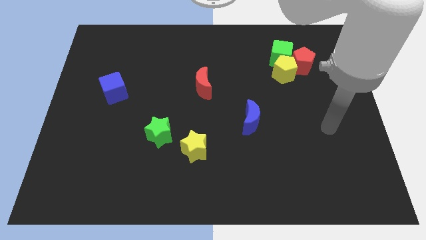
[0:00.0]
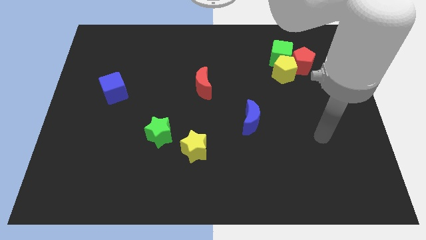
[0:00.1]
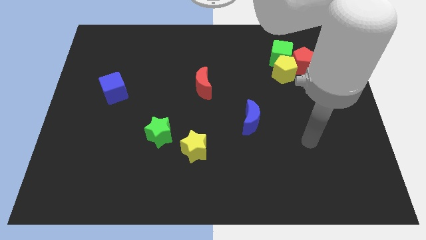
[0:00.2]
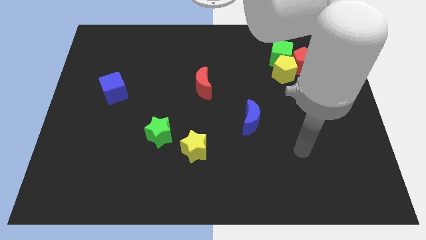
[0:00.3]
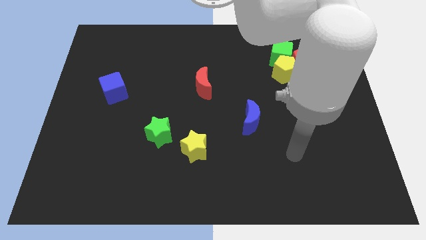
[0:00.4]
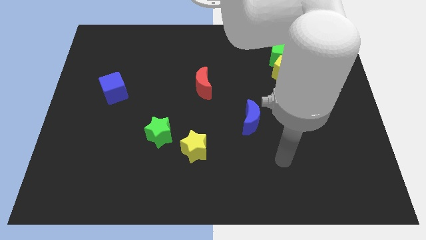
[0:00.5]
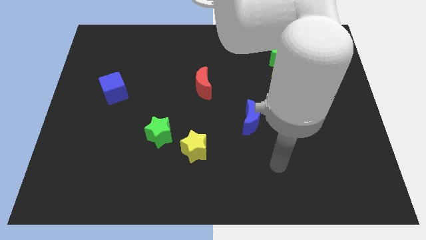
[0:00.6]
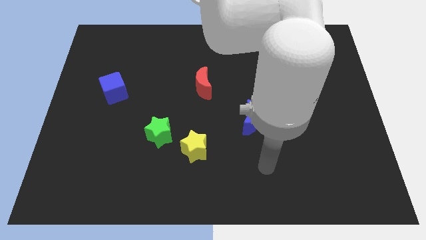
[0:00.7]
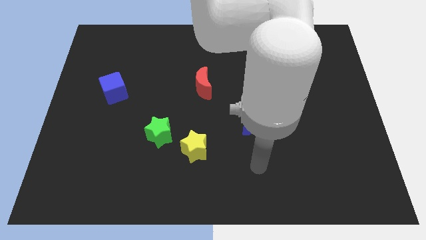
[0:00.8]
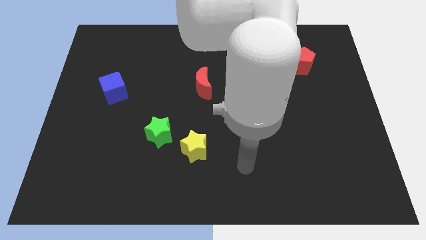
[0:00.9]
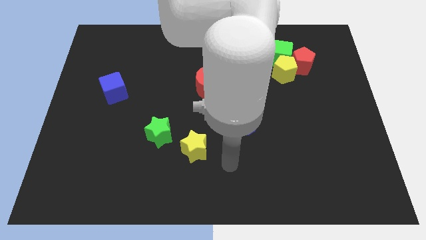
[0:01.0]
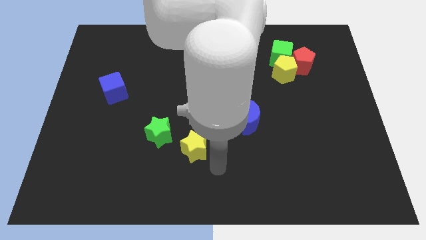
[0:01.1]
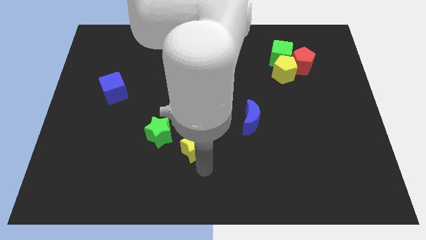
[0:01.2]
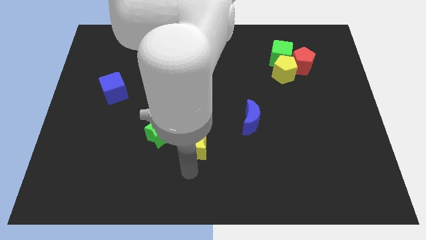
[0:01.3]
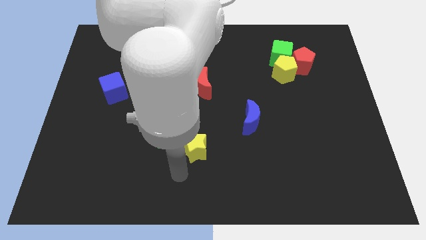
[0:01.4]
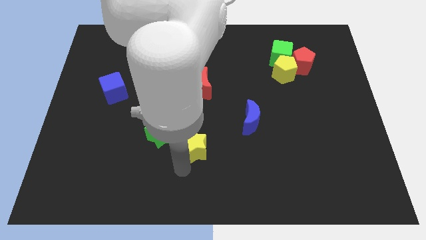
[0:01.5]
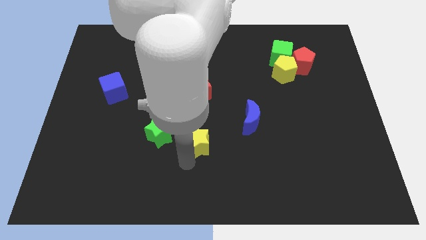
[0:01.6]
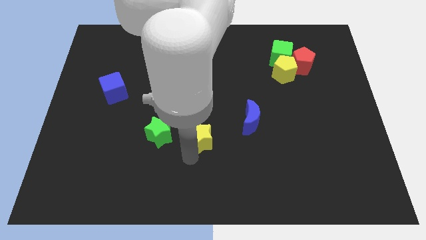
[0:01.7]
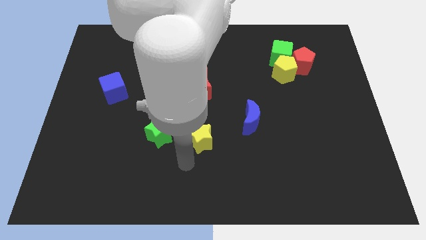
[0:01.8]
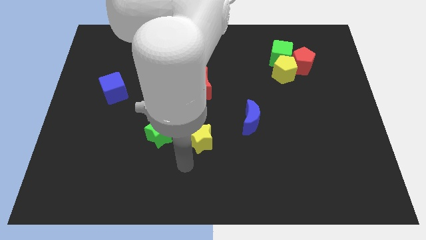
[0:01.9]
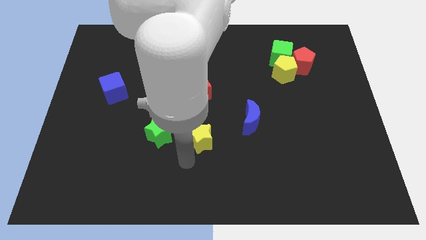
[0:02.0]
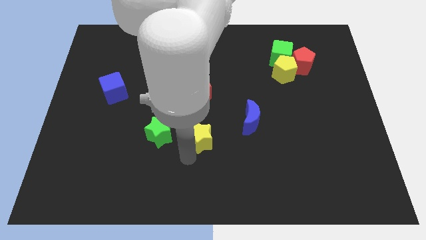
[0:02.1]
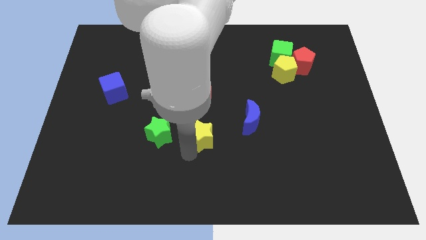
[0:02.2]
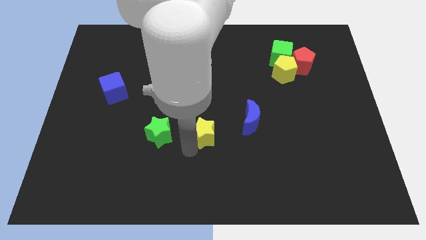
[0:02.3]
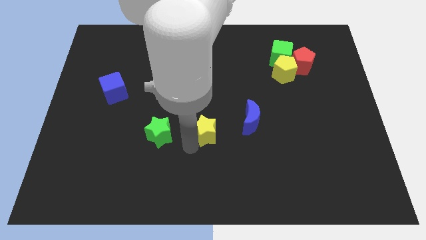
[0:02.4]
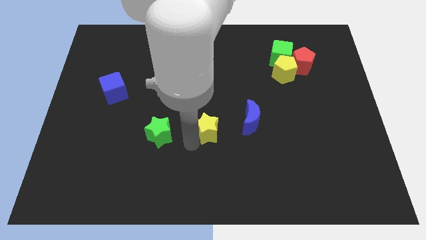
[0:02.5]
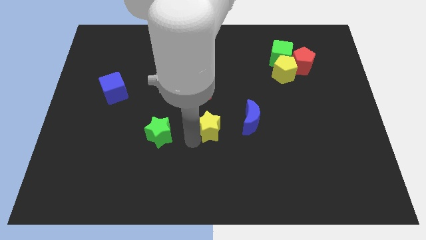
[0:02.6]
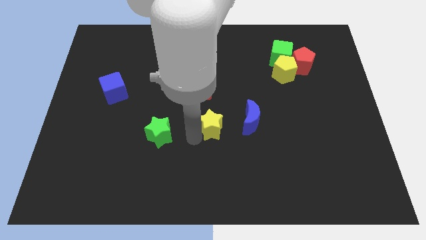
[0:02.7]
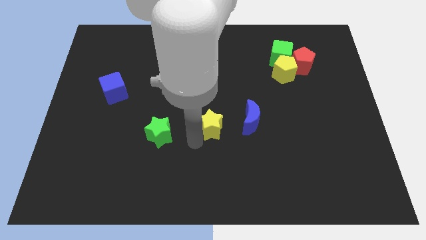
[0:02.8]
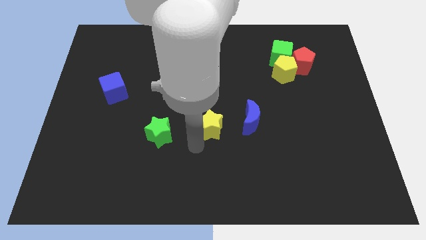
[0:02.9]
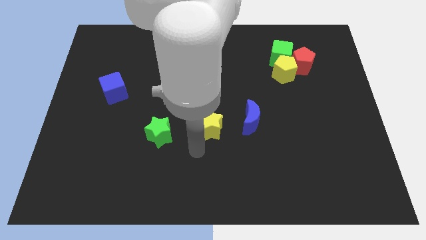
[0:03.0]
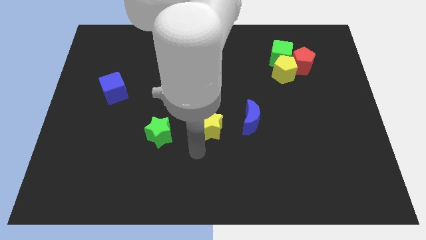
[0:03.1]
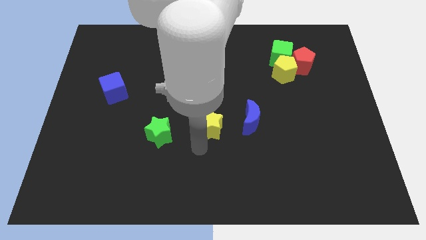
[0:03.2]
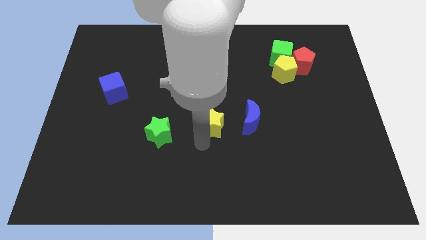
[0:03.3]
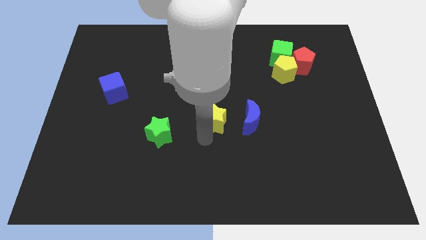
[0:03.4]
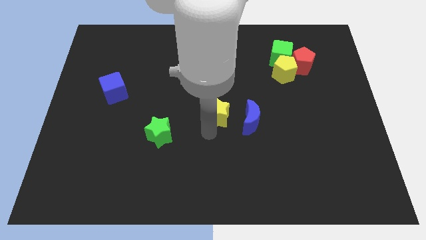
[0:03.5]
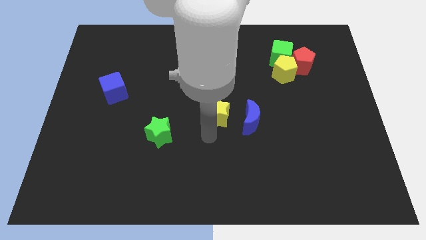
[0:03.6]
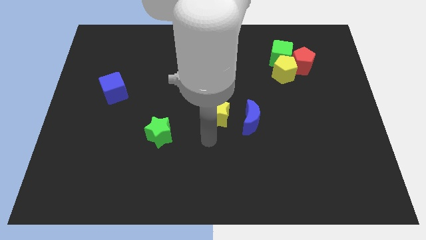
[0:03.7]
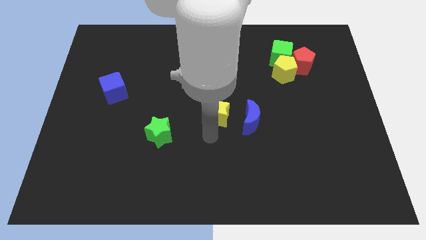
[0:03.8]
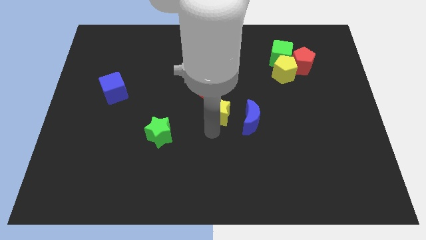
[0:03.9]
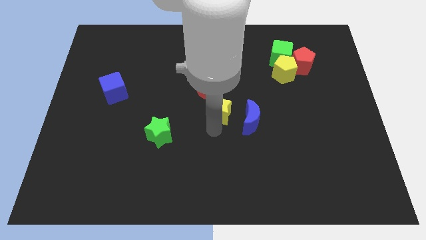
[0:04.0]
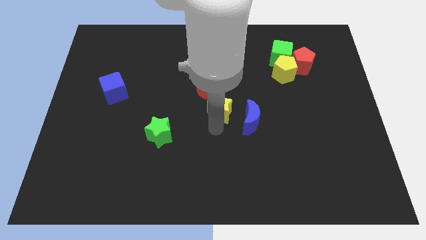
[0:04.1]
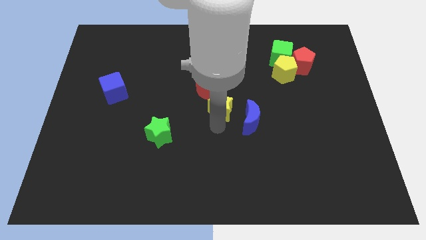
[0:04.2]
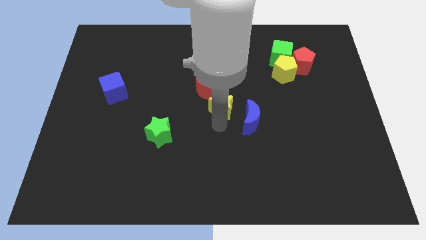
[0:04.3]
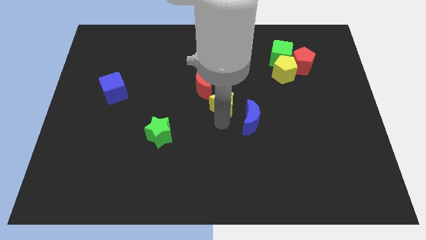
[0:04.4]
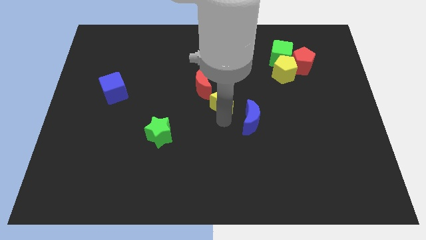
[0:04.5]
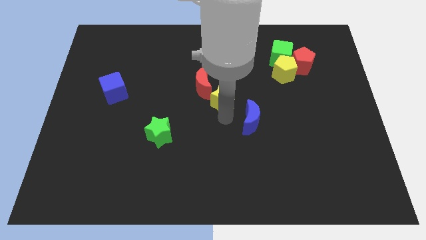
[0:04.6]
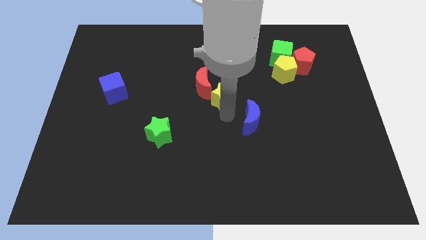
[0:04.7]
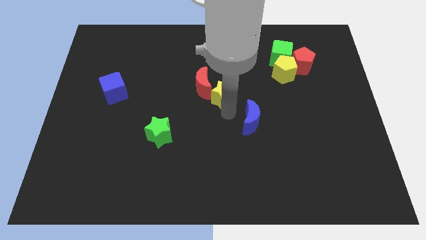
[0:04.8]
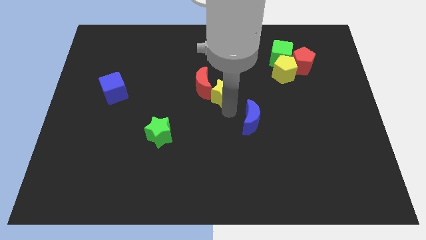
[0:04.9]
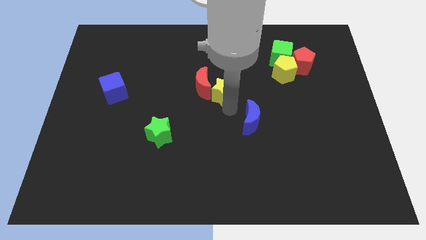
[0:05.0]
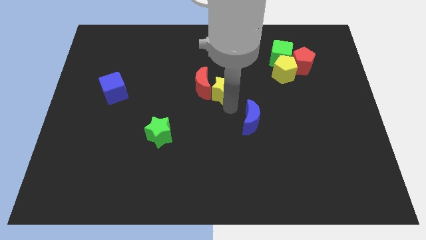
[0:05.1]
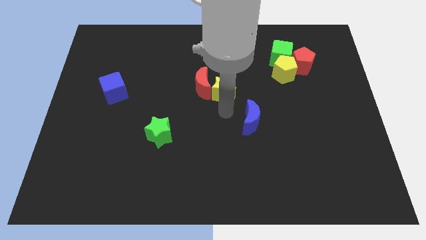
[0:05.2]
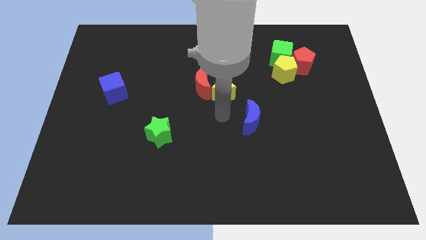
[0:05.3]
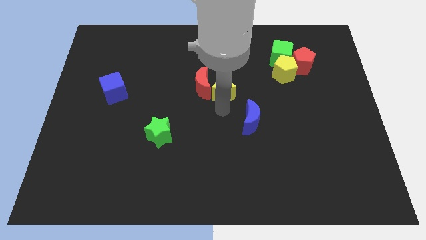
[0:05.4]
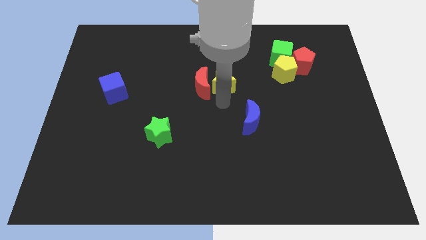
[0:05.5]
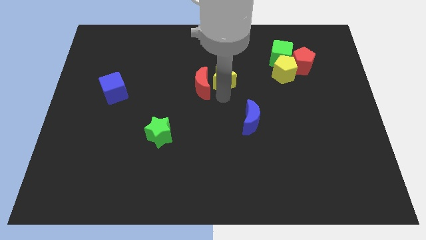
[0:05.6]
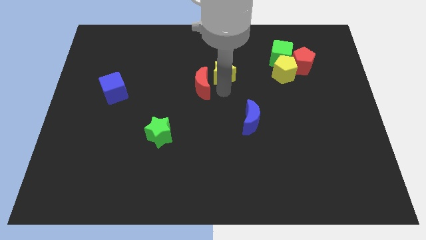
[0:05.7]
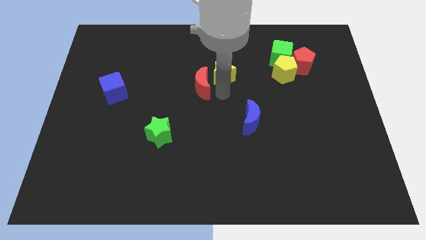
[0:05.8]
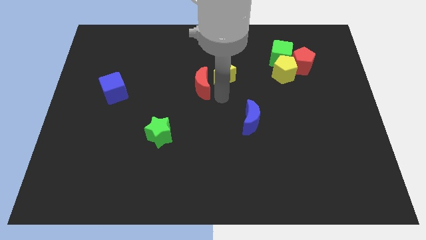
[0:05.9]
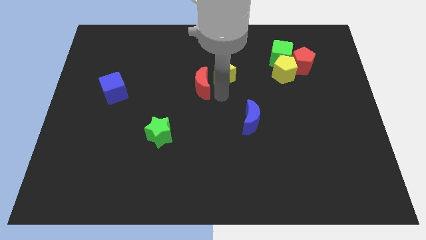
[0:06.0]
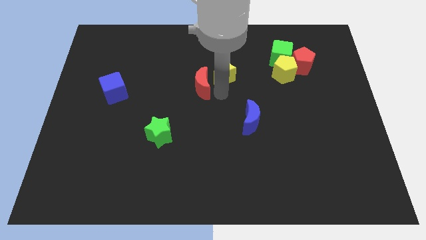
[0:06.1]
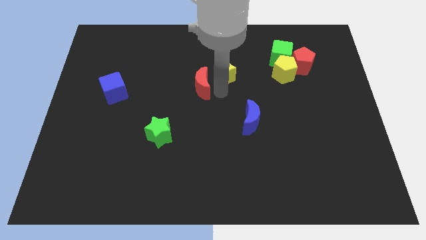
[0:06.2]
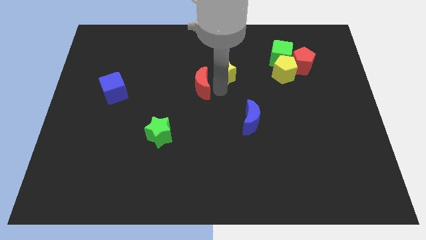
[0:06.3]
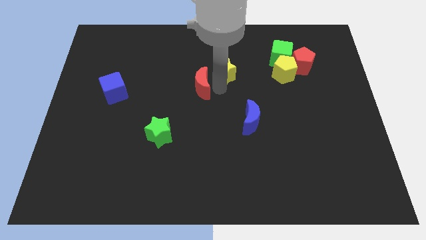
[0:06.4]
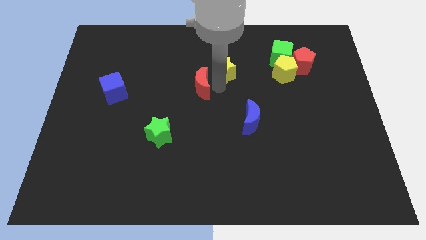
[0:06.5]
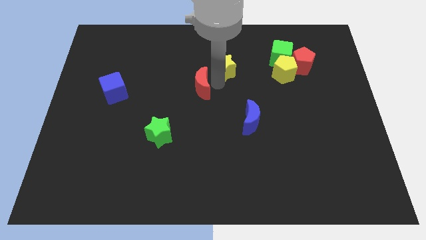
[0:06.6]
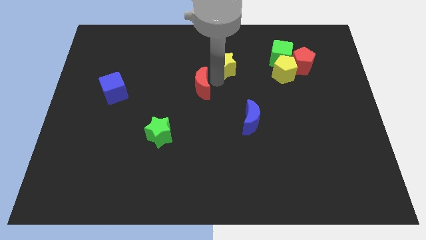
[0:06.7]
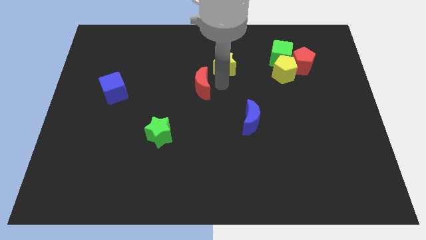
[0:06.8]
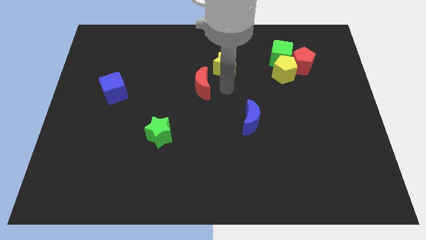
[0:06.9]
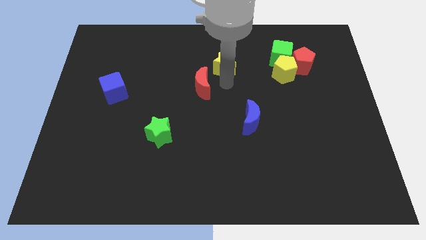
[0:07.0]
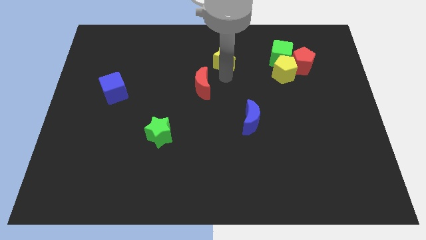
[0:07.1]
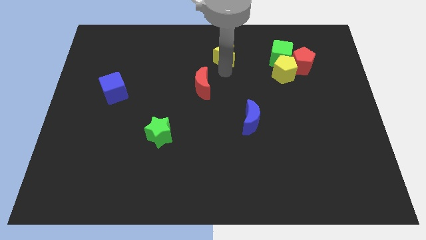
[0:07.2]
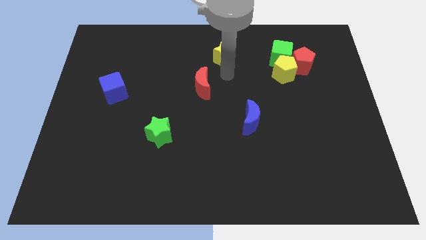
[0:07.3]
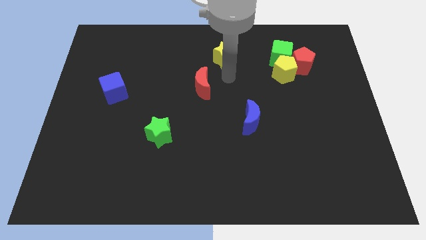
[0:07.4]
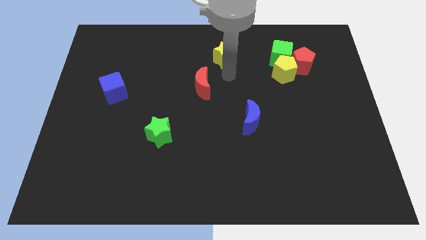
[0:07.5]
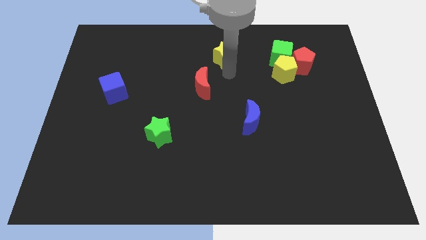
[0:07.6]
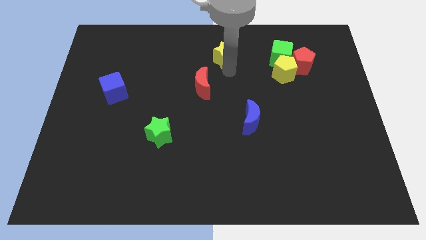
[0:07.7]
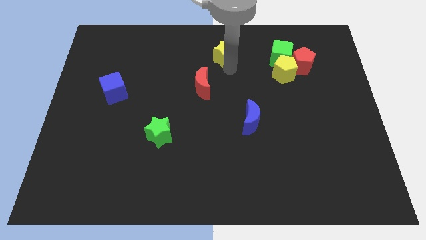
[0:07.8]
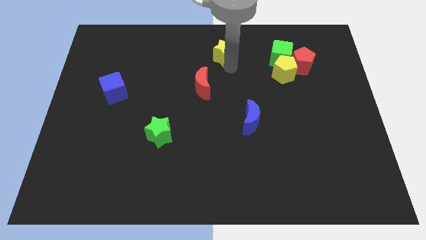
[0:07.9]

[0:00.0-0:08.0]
move the yellow star to the towards your base
